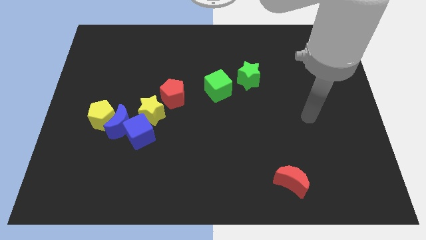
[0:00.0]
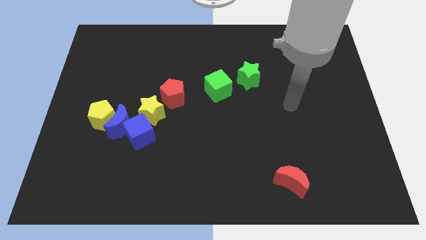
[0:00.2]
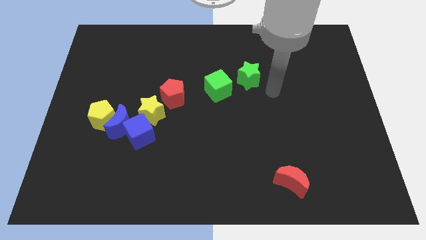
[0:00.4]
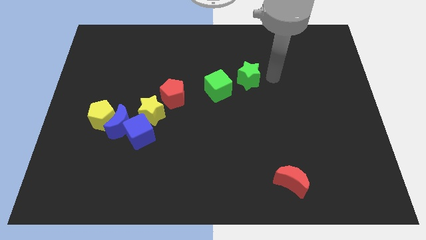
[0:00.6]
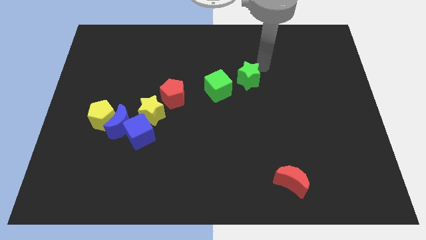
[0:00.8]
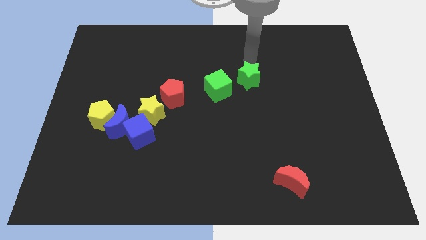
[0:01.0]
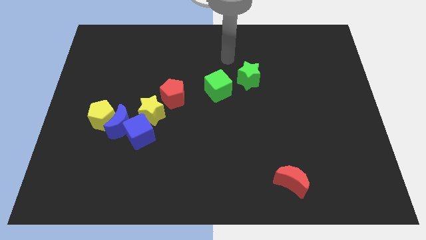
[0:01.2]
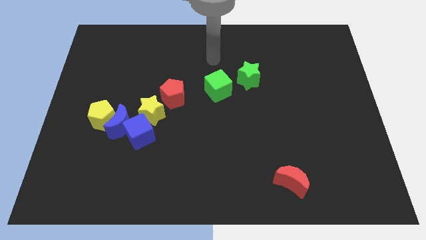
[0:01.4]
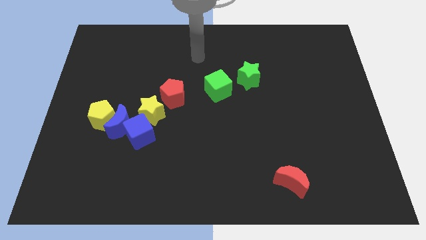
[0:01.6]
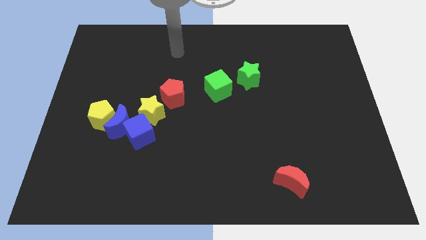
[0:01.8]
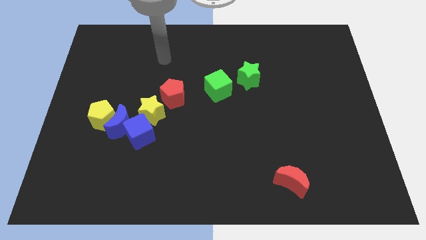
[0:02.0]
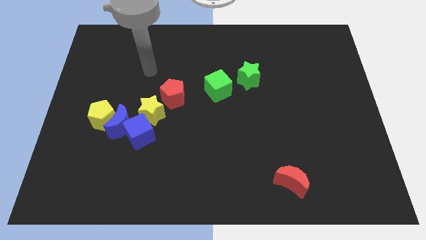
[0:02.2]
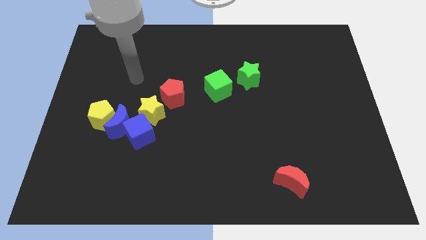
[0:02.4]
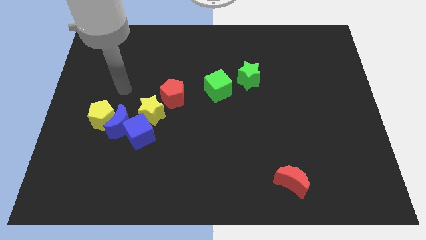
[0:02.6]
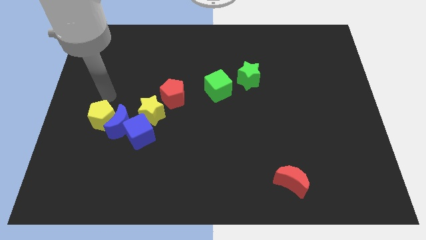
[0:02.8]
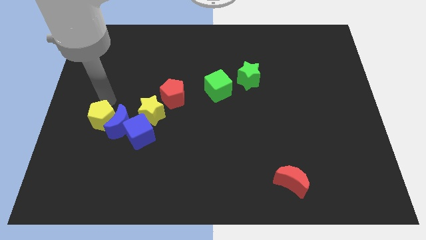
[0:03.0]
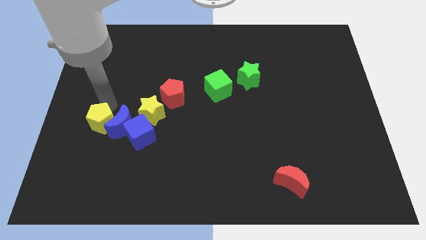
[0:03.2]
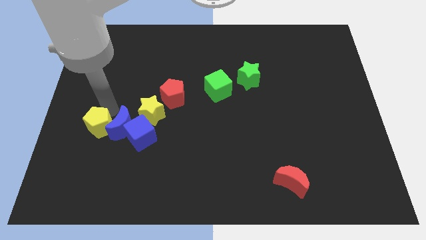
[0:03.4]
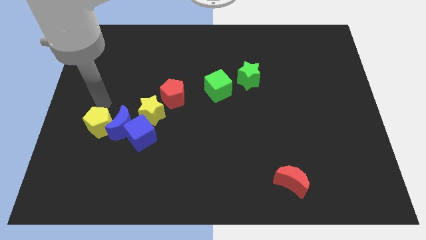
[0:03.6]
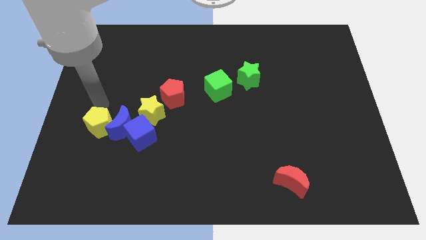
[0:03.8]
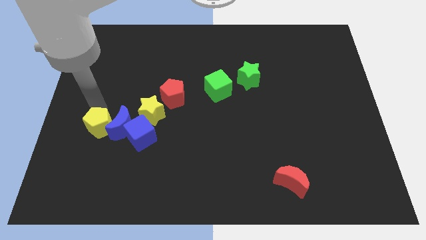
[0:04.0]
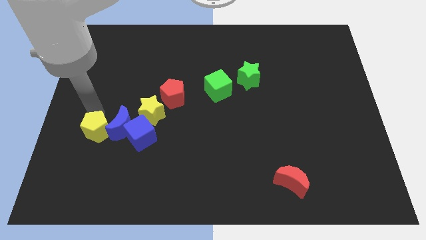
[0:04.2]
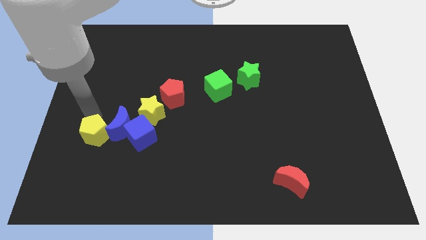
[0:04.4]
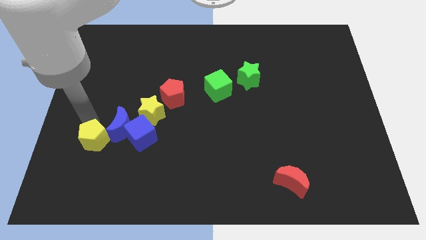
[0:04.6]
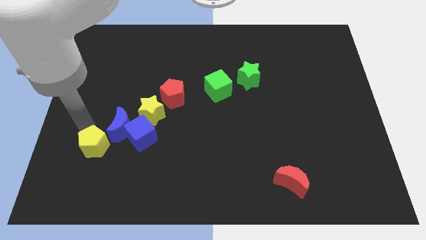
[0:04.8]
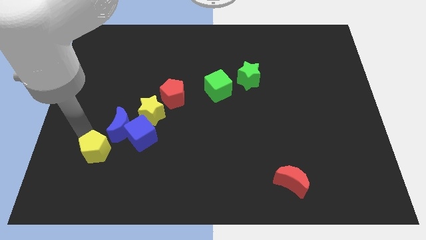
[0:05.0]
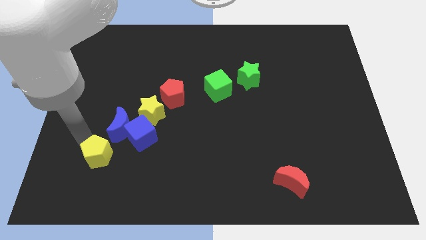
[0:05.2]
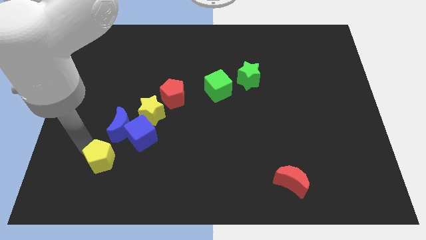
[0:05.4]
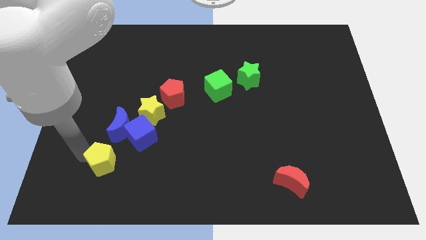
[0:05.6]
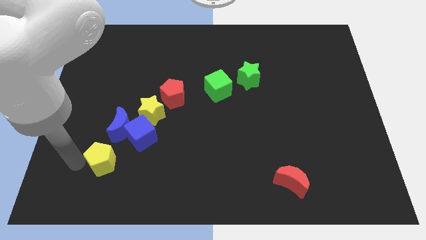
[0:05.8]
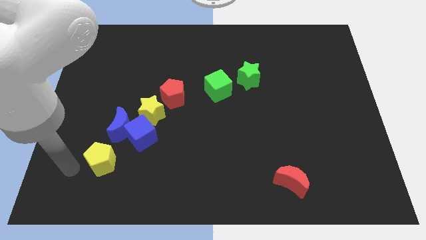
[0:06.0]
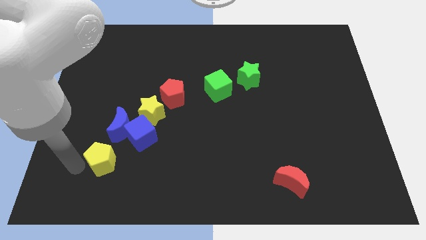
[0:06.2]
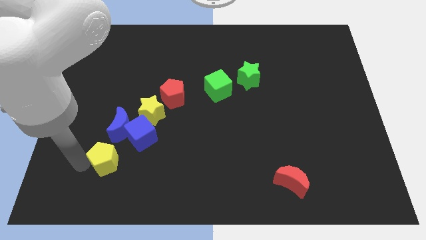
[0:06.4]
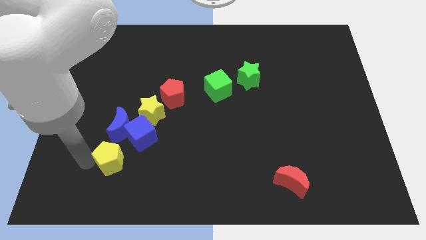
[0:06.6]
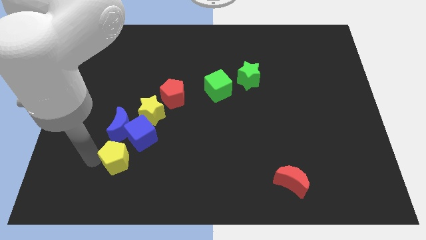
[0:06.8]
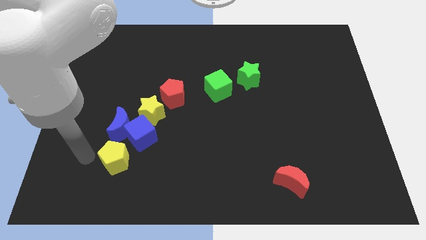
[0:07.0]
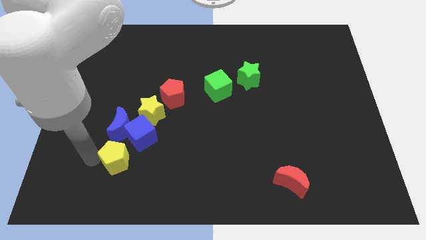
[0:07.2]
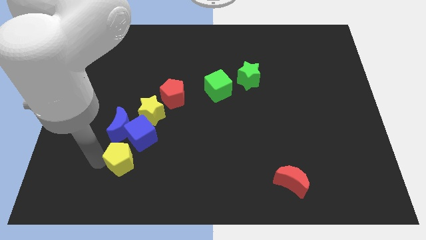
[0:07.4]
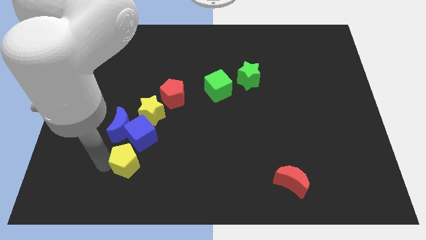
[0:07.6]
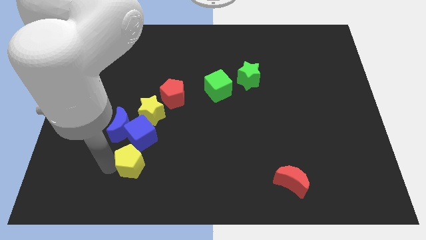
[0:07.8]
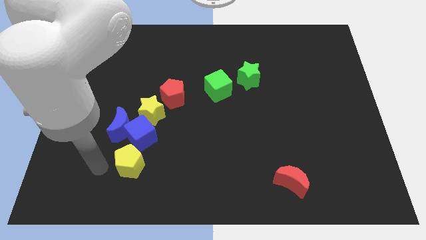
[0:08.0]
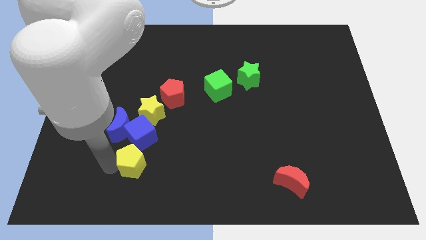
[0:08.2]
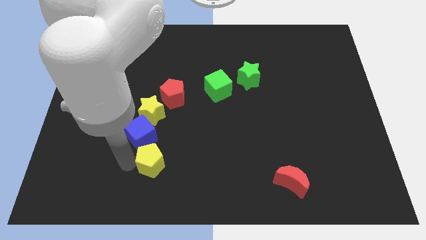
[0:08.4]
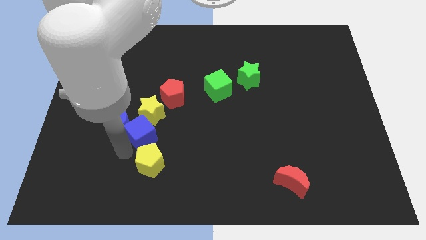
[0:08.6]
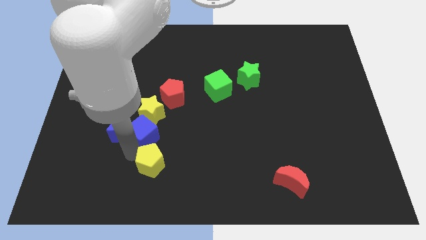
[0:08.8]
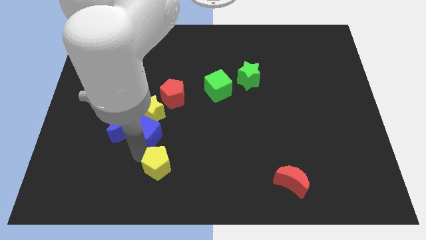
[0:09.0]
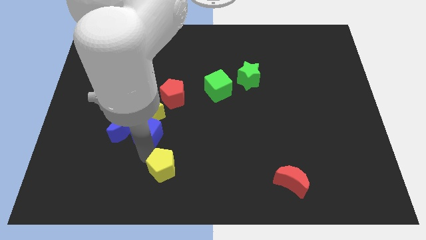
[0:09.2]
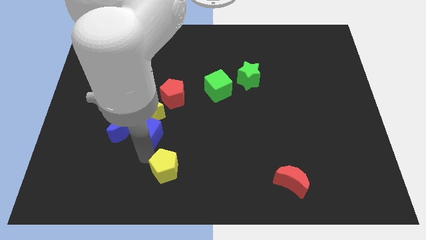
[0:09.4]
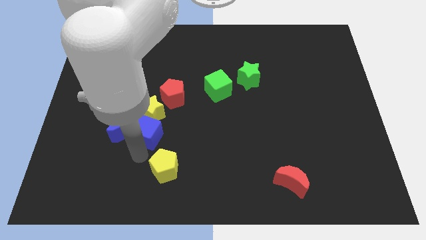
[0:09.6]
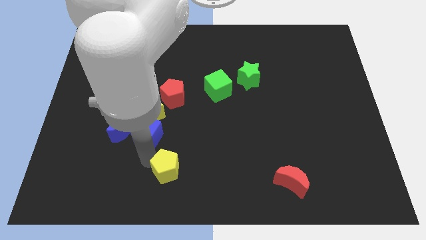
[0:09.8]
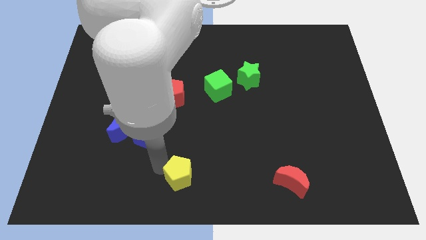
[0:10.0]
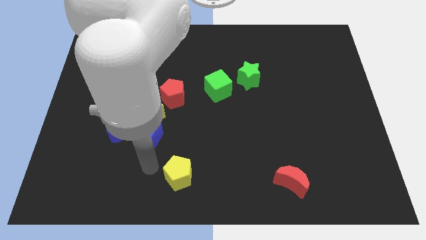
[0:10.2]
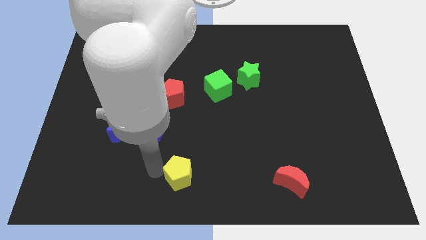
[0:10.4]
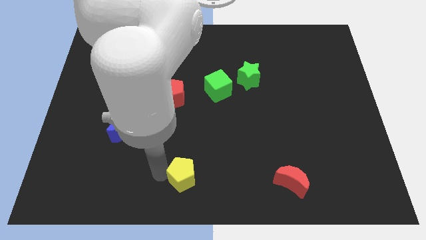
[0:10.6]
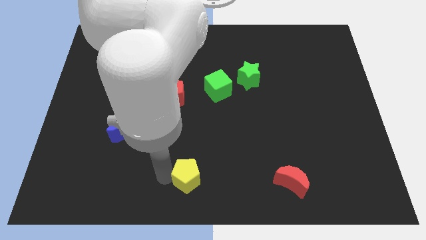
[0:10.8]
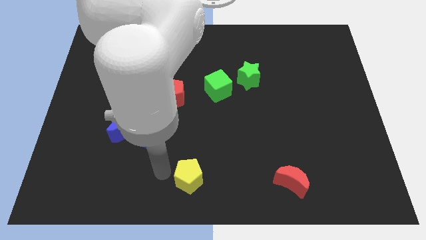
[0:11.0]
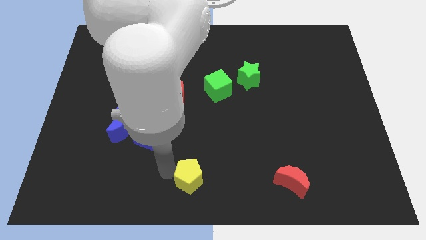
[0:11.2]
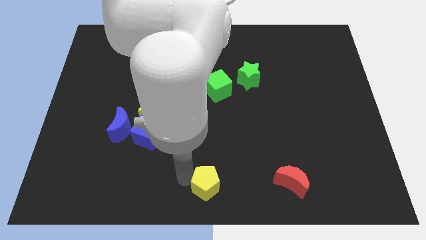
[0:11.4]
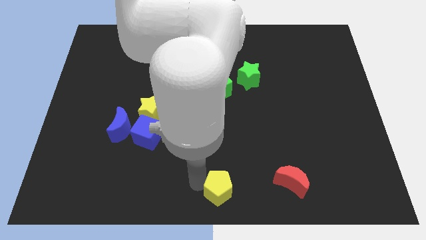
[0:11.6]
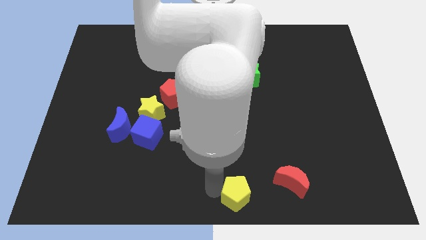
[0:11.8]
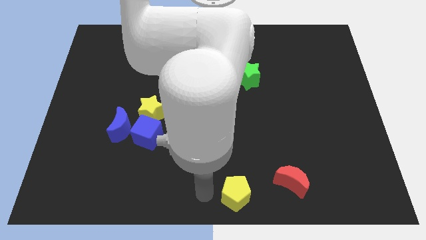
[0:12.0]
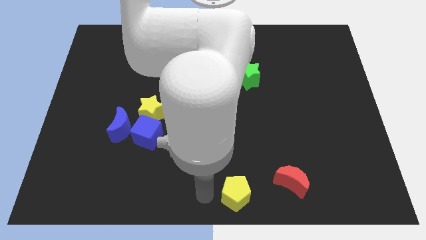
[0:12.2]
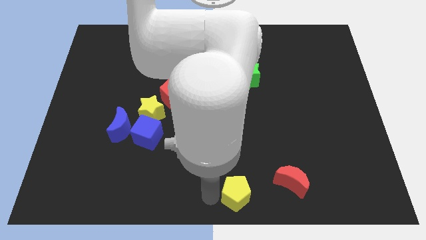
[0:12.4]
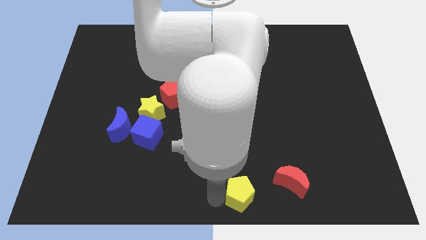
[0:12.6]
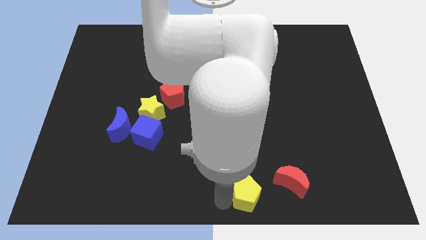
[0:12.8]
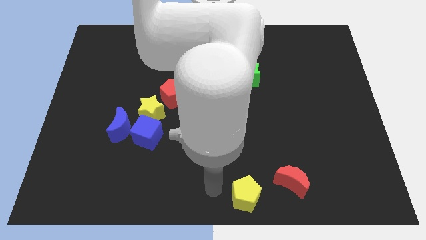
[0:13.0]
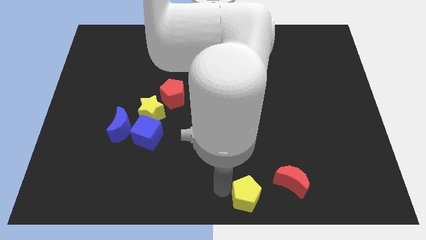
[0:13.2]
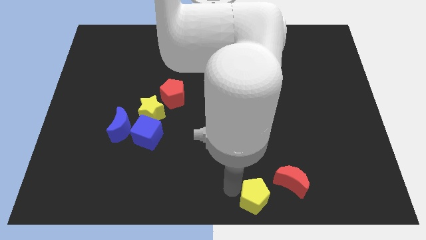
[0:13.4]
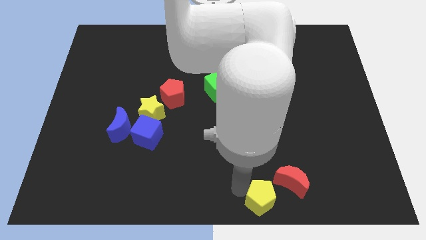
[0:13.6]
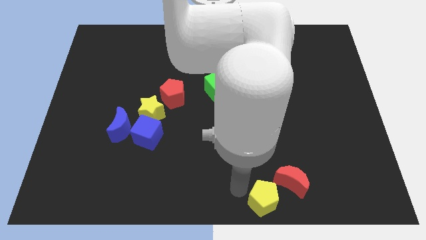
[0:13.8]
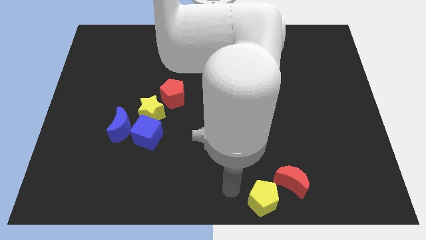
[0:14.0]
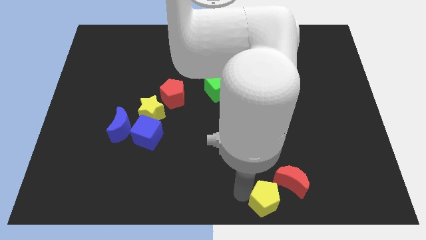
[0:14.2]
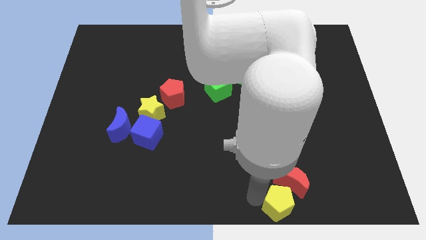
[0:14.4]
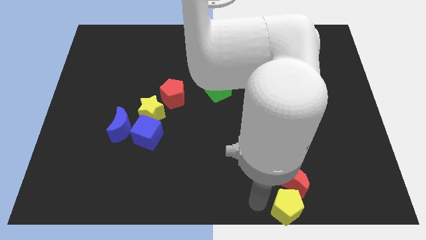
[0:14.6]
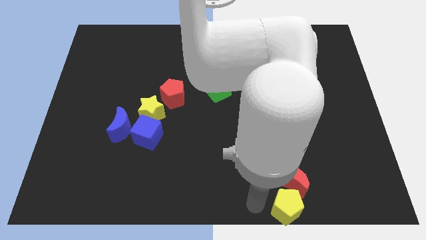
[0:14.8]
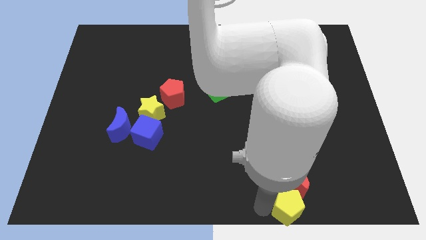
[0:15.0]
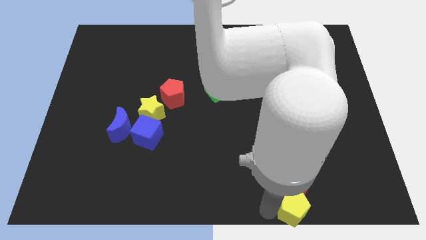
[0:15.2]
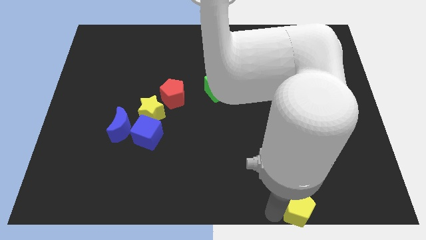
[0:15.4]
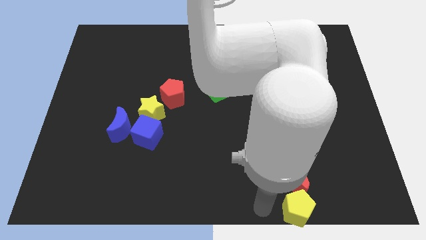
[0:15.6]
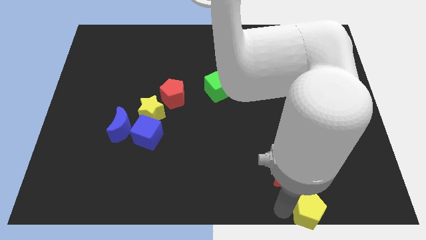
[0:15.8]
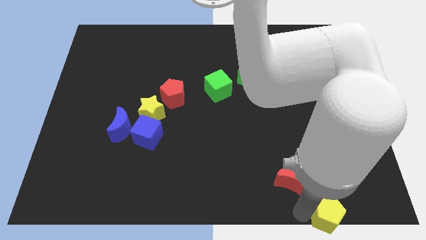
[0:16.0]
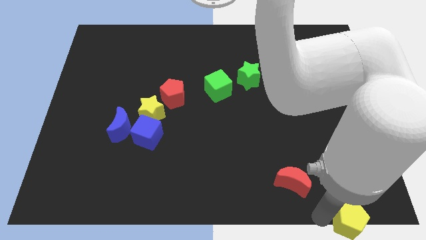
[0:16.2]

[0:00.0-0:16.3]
push the yellow pentagon to the lower right corner
